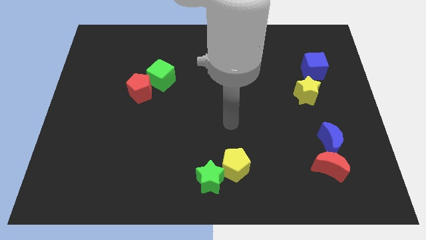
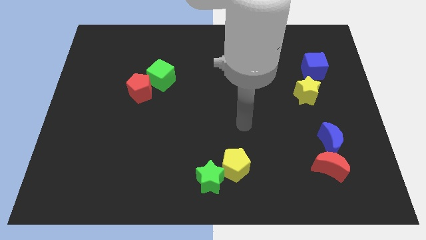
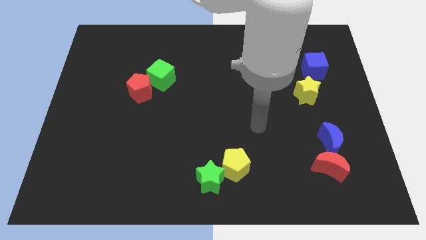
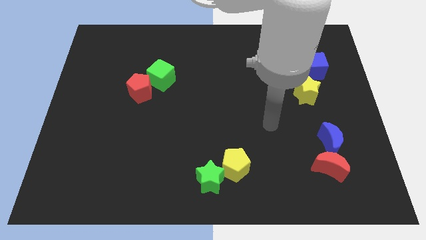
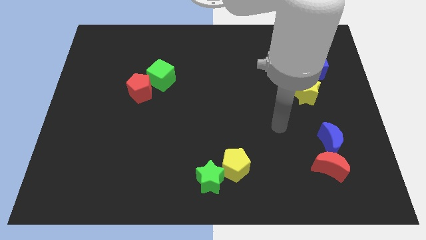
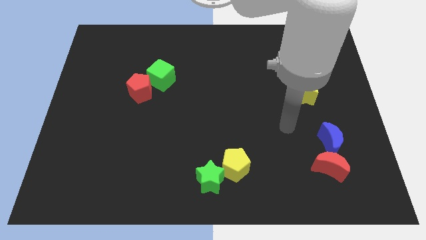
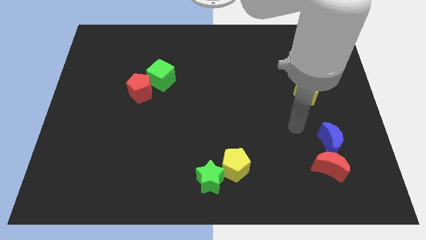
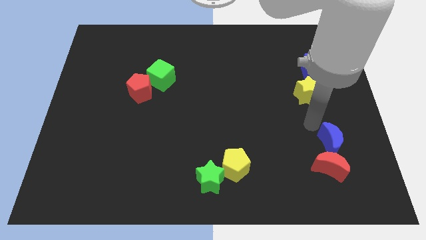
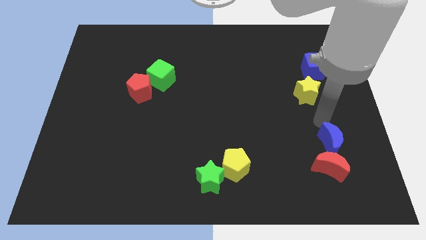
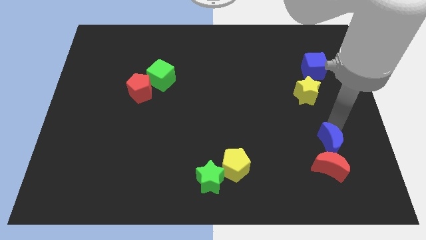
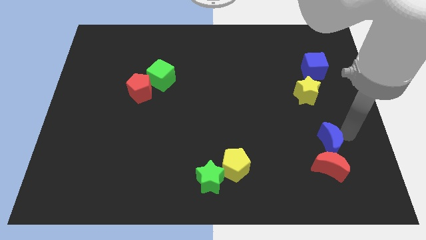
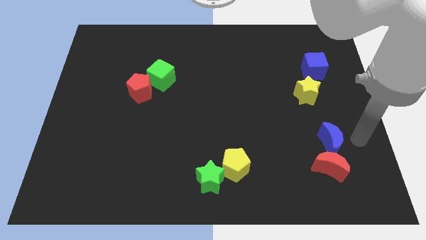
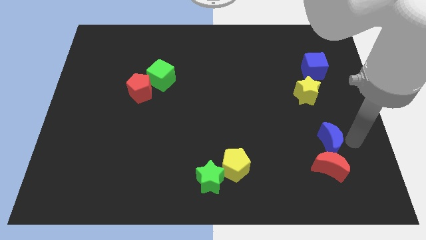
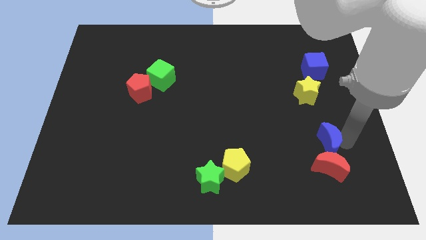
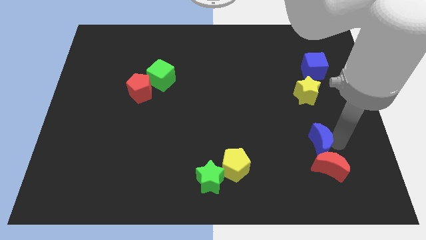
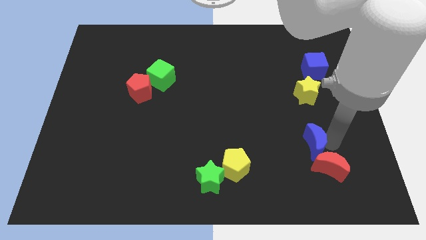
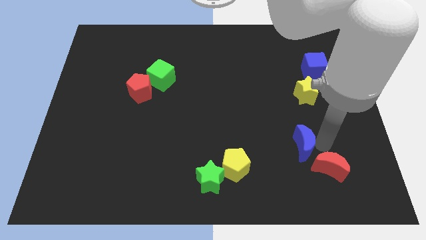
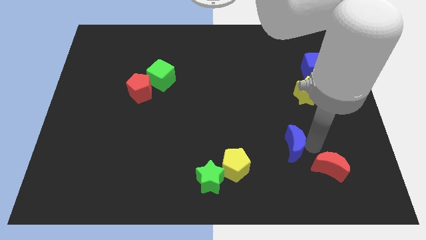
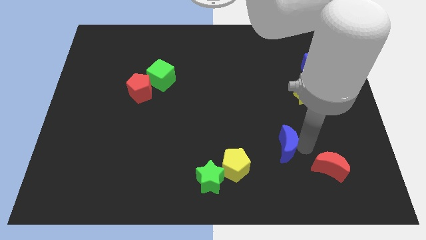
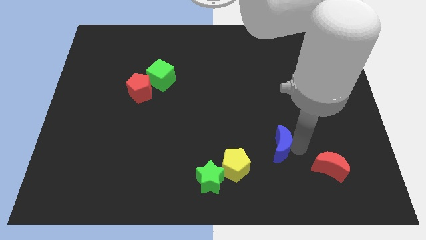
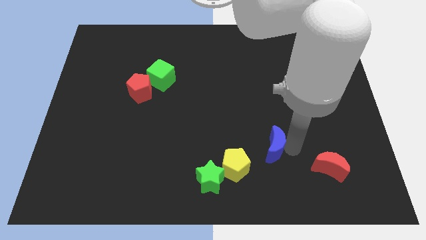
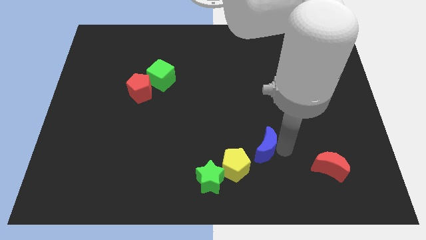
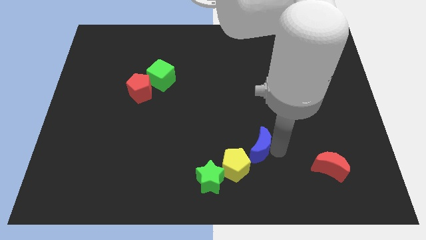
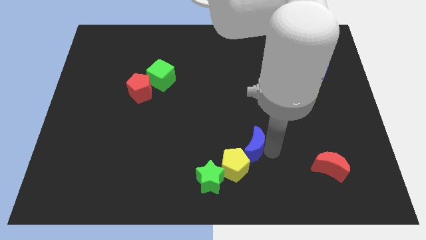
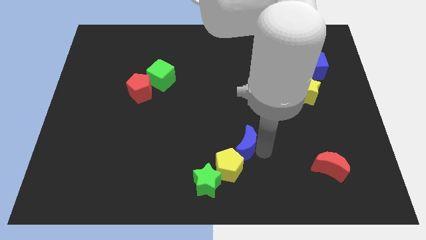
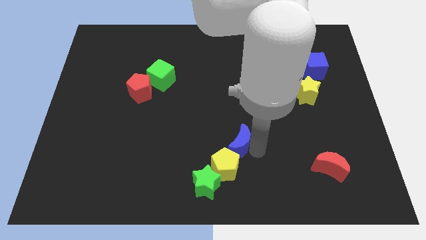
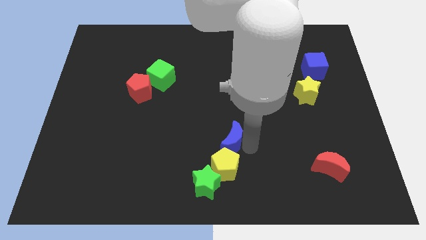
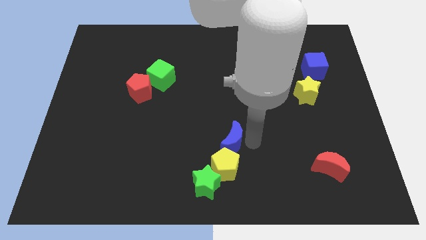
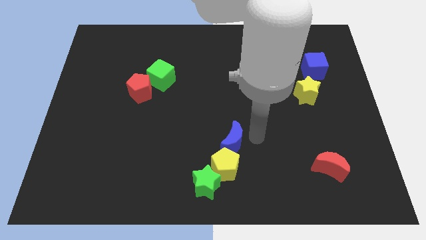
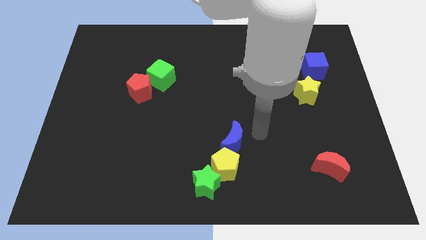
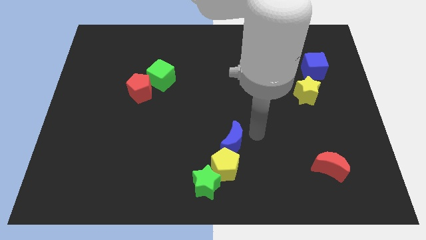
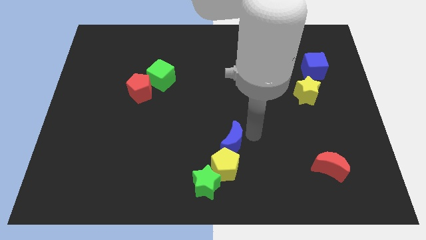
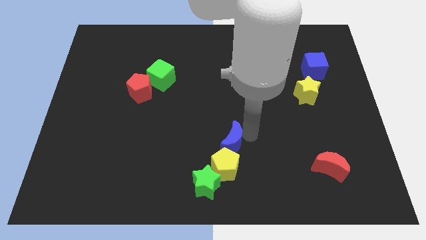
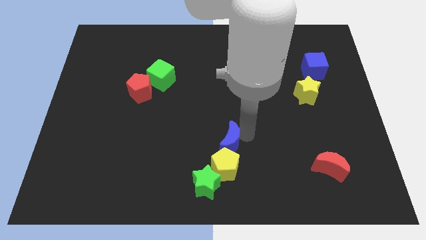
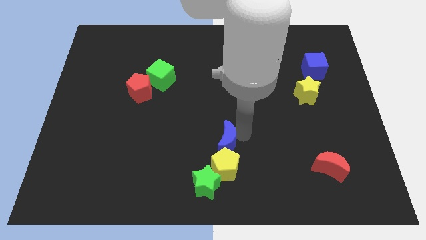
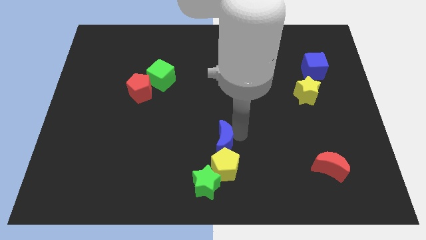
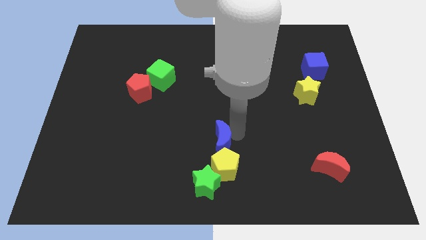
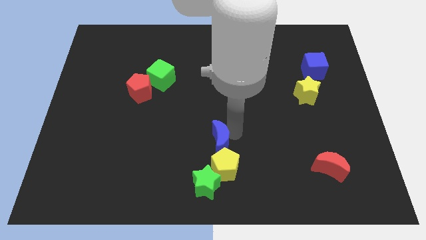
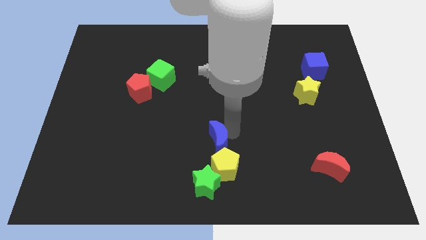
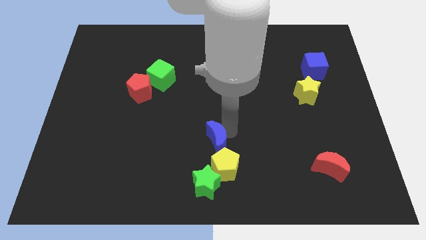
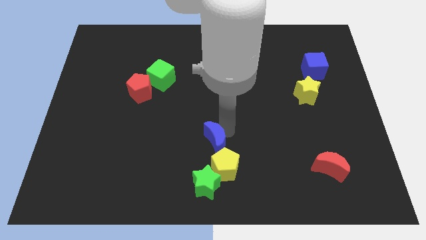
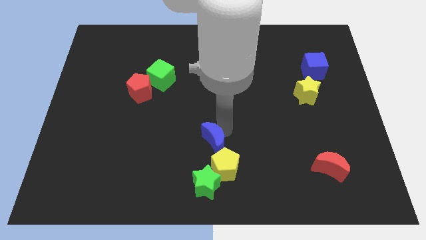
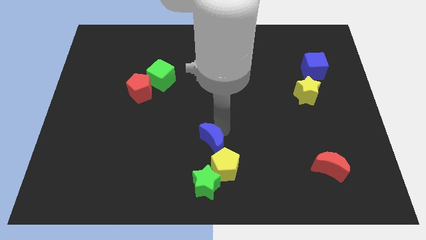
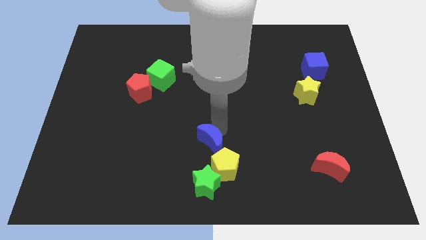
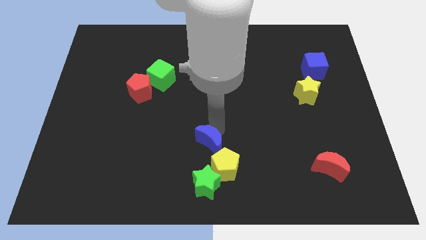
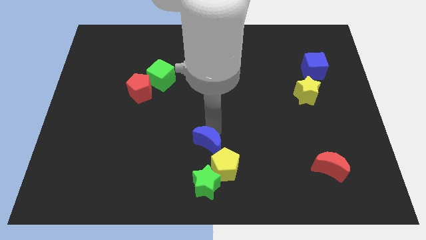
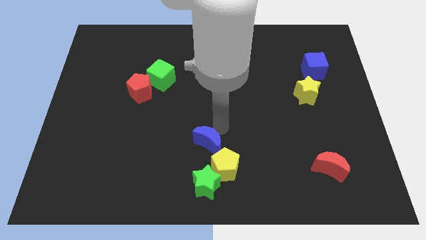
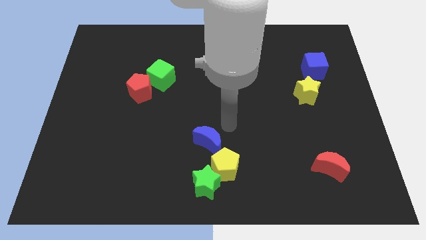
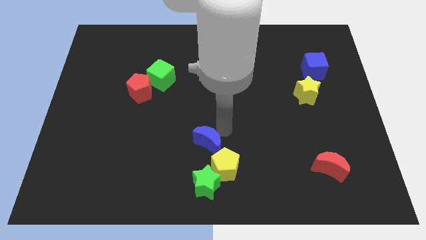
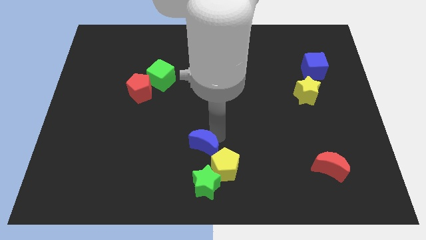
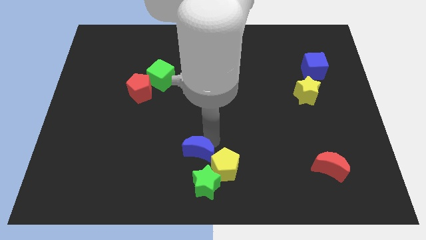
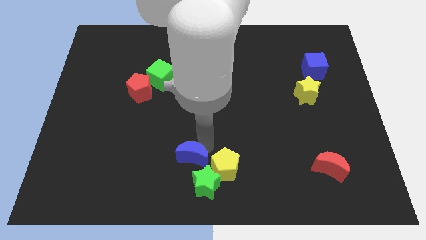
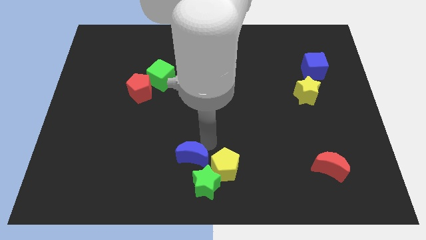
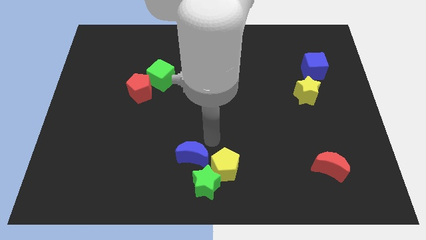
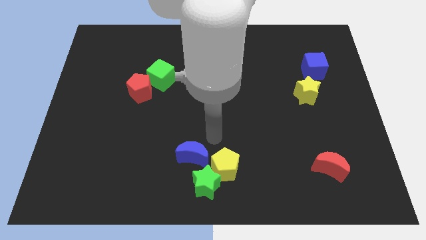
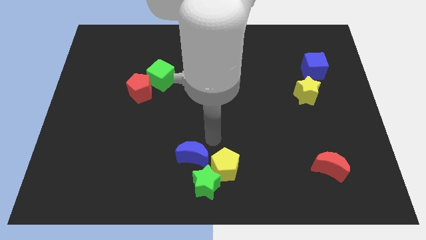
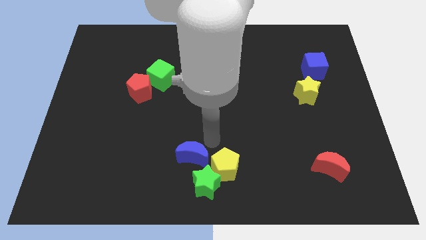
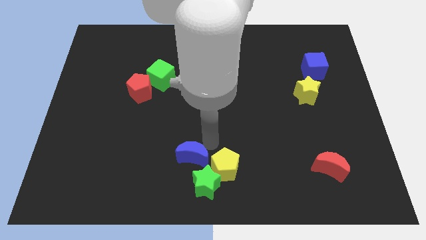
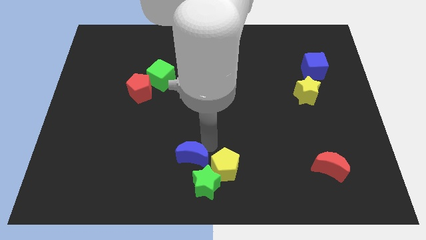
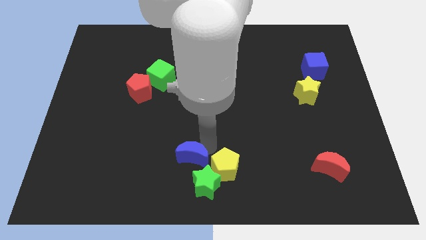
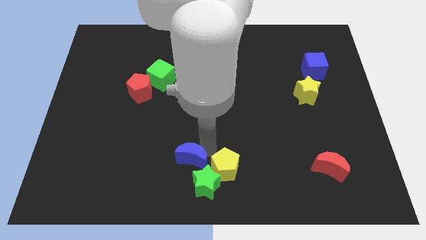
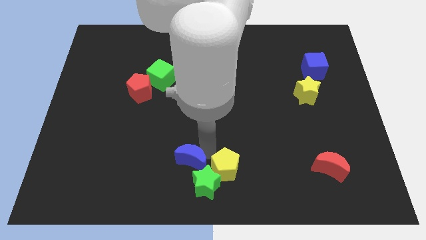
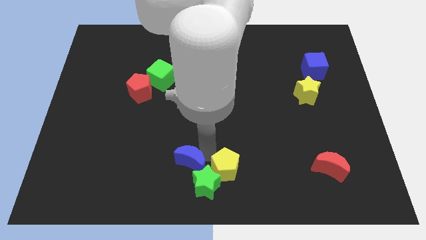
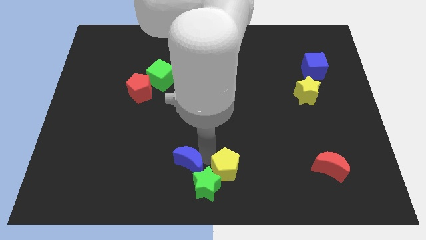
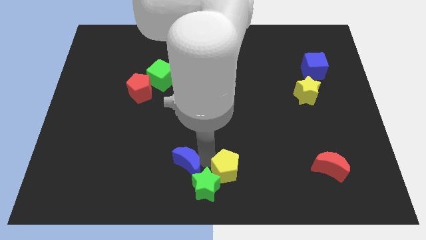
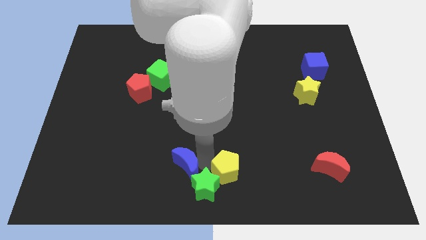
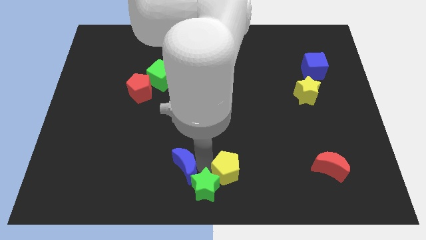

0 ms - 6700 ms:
slide the blue moon just left of the green star
